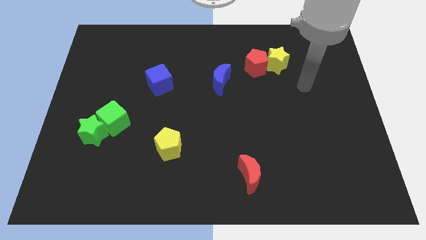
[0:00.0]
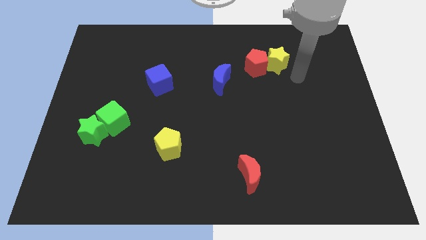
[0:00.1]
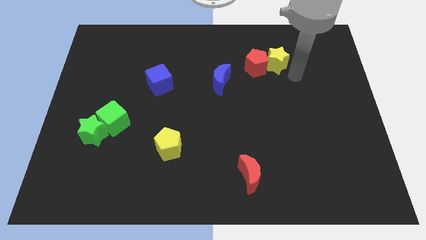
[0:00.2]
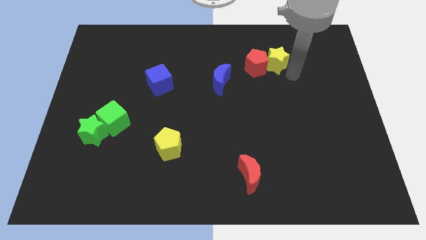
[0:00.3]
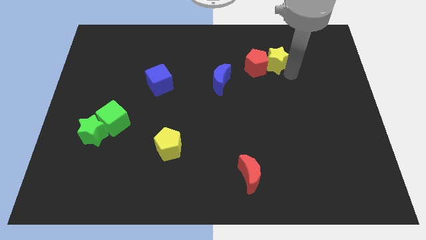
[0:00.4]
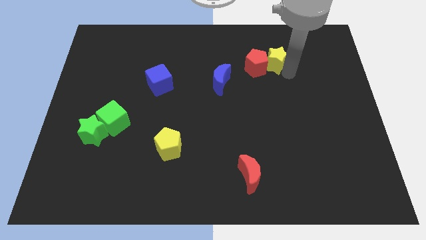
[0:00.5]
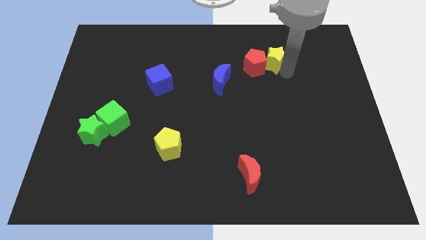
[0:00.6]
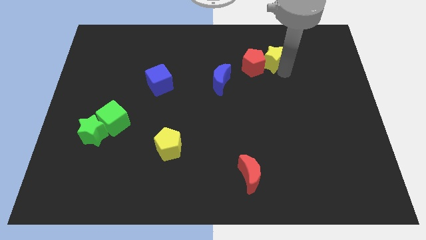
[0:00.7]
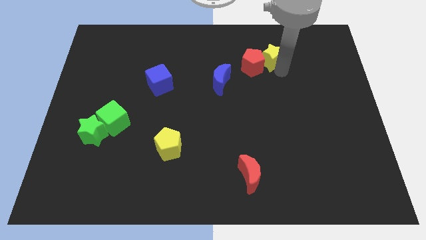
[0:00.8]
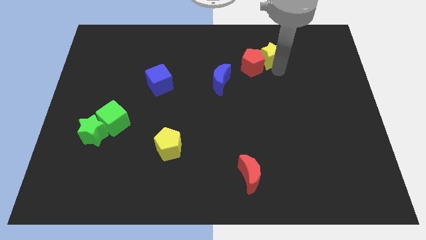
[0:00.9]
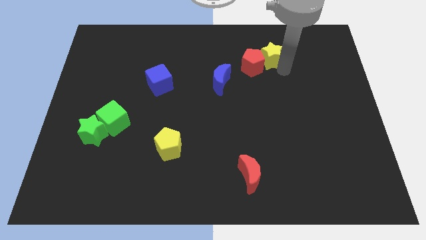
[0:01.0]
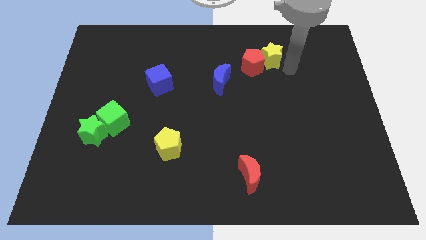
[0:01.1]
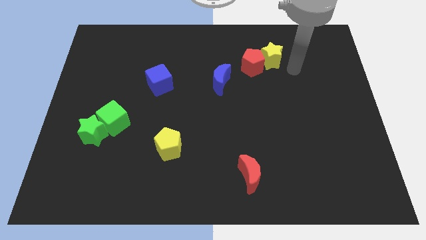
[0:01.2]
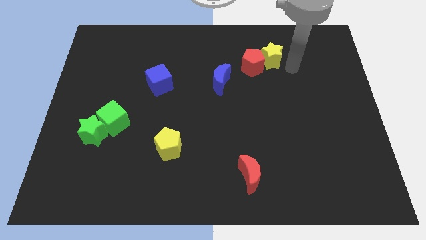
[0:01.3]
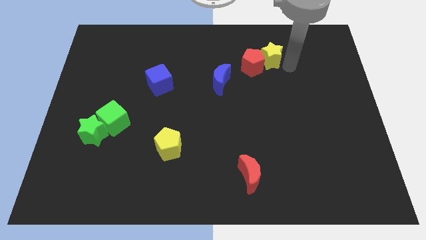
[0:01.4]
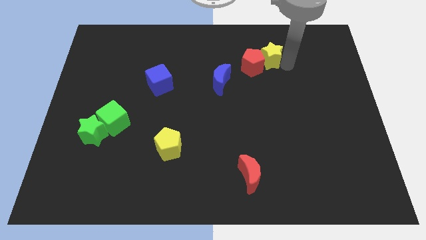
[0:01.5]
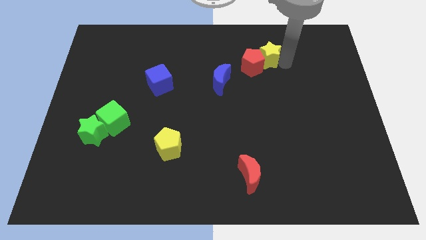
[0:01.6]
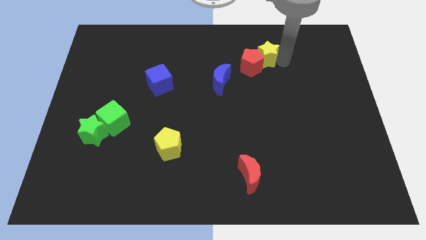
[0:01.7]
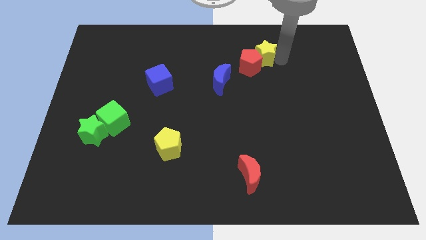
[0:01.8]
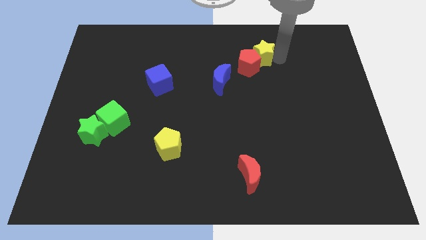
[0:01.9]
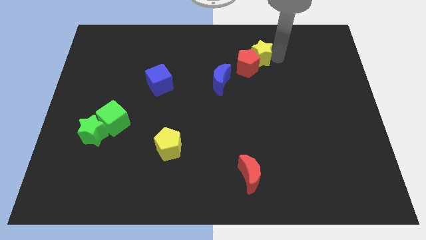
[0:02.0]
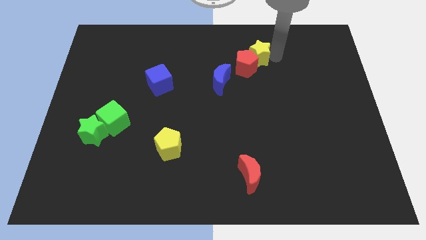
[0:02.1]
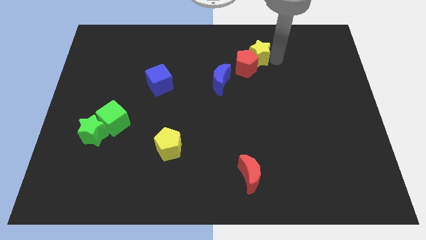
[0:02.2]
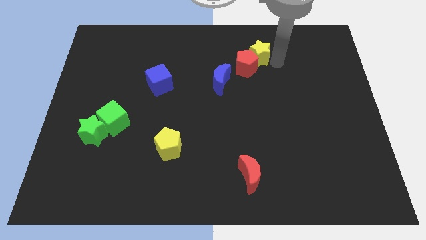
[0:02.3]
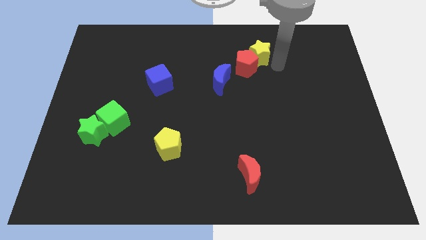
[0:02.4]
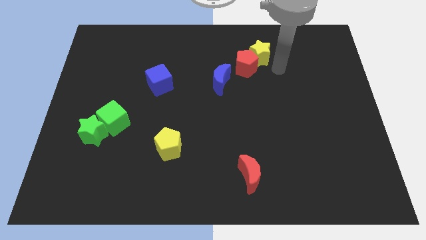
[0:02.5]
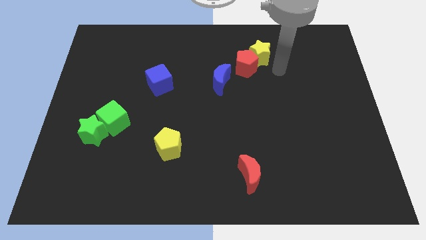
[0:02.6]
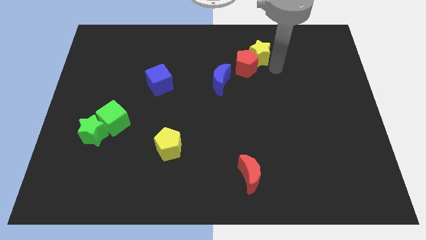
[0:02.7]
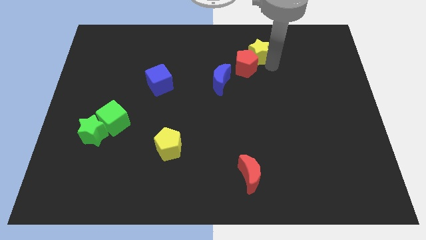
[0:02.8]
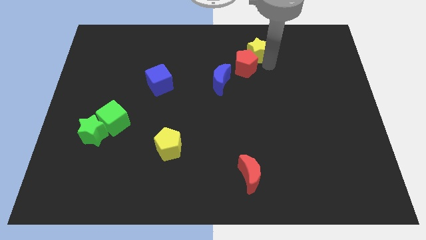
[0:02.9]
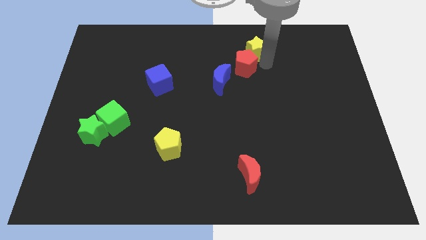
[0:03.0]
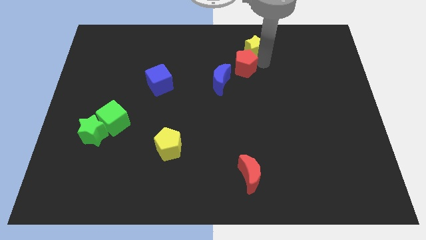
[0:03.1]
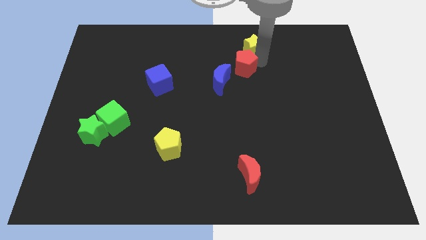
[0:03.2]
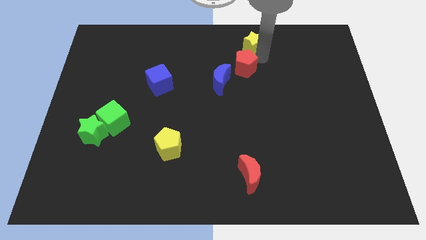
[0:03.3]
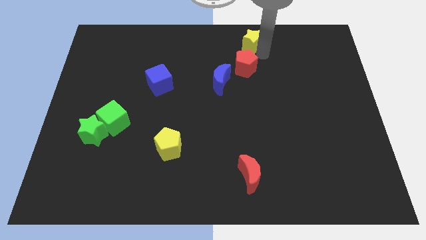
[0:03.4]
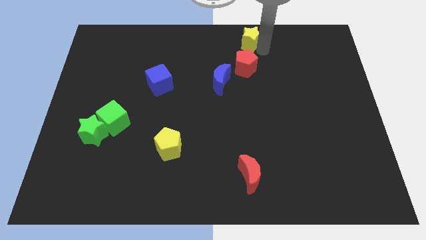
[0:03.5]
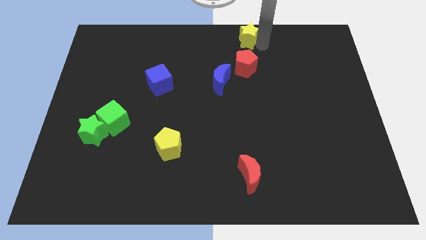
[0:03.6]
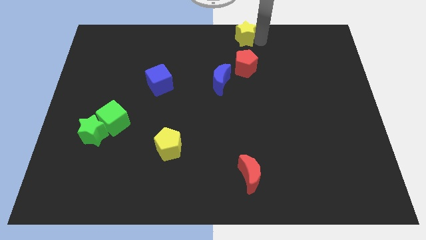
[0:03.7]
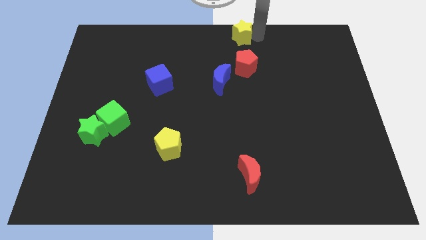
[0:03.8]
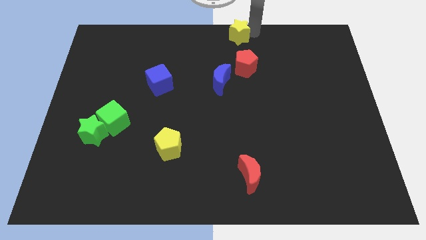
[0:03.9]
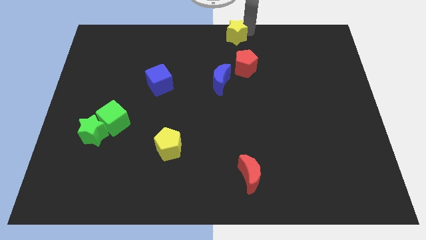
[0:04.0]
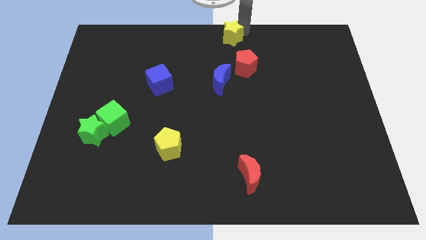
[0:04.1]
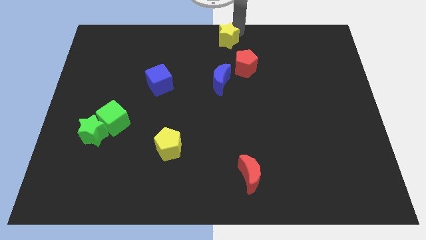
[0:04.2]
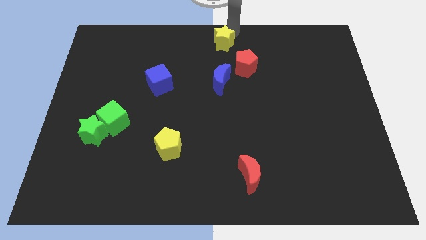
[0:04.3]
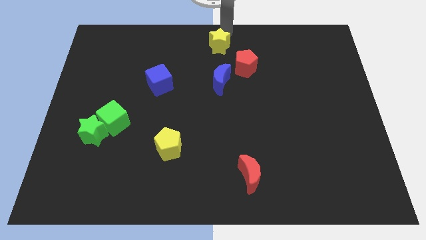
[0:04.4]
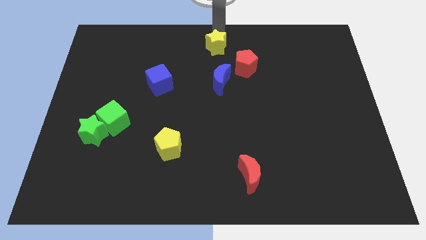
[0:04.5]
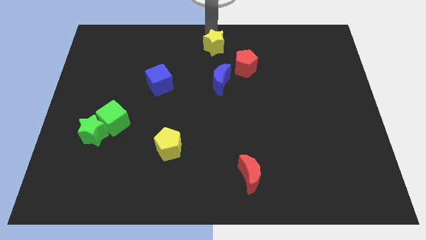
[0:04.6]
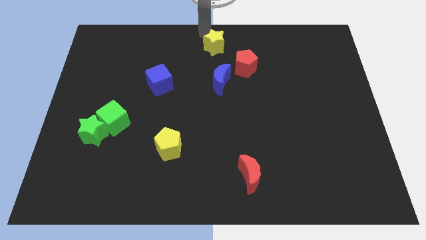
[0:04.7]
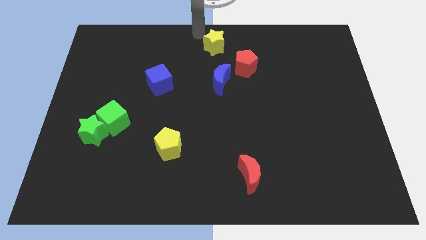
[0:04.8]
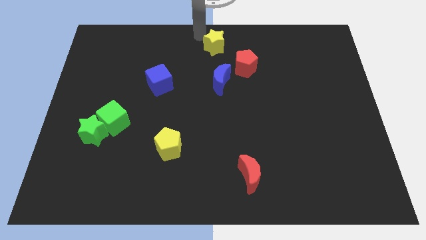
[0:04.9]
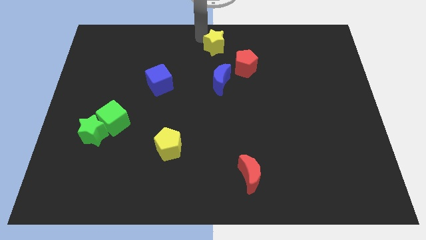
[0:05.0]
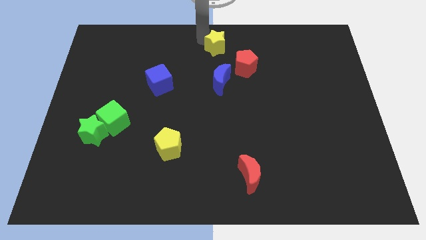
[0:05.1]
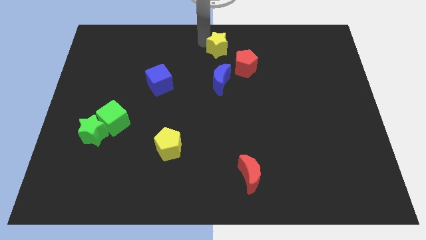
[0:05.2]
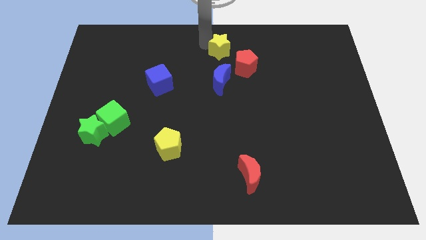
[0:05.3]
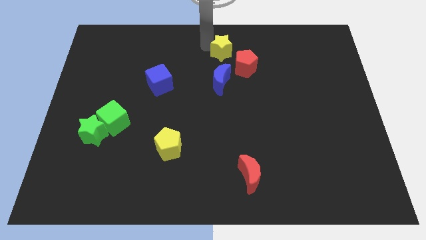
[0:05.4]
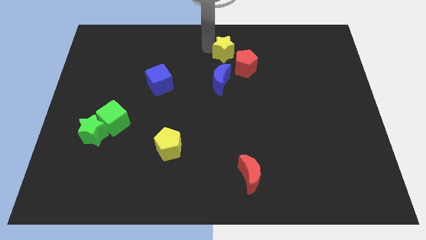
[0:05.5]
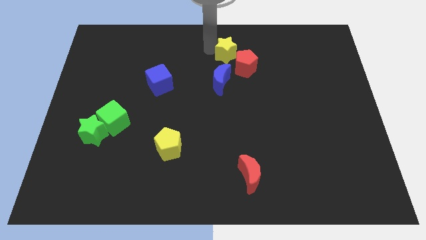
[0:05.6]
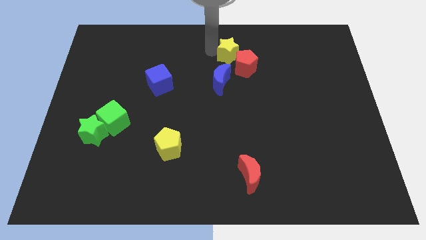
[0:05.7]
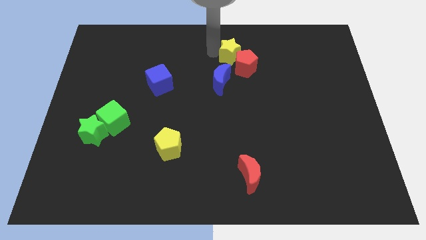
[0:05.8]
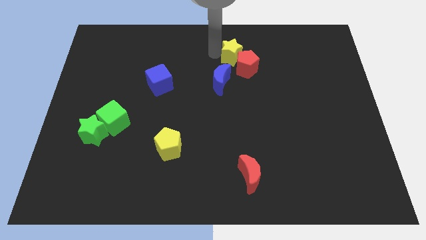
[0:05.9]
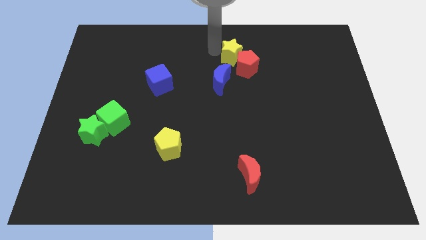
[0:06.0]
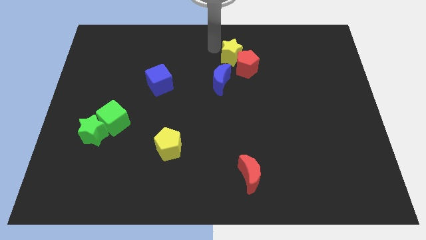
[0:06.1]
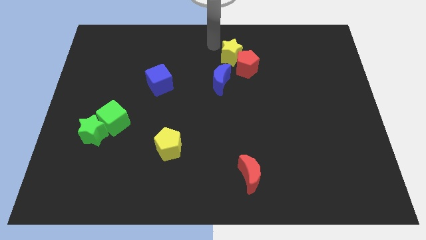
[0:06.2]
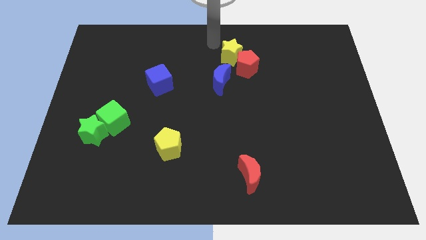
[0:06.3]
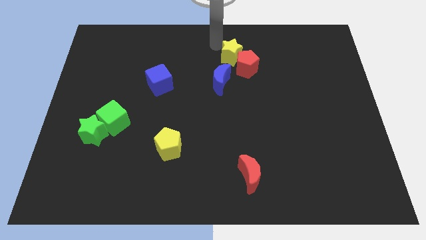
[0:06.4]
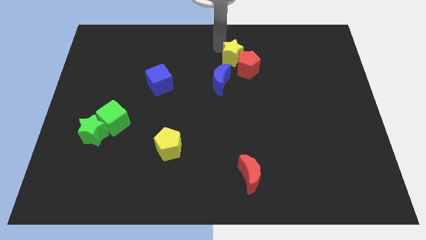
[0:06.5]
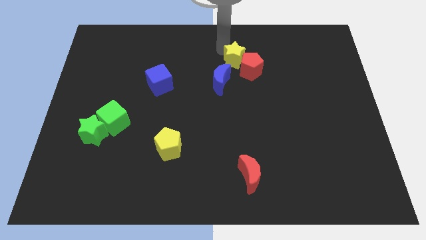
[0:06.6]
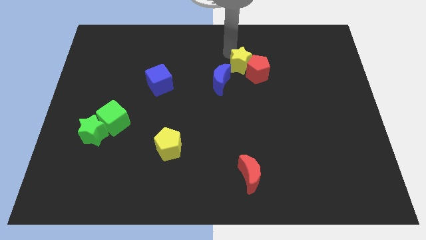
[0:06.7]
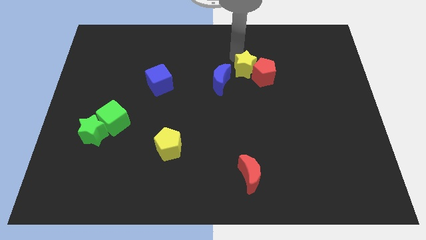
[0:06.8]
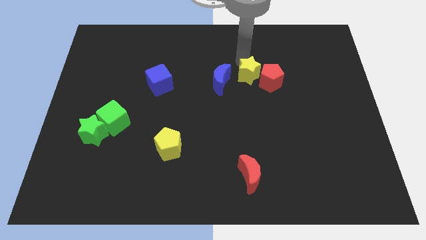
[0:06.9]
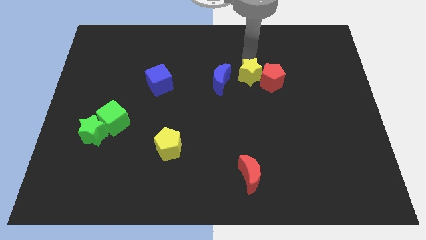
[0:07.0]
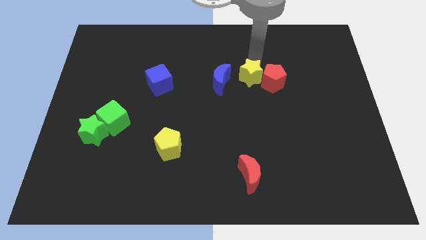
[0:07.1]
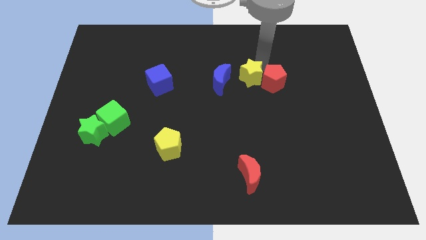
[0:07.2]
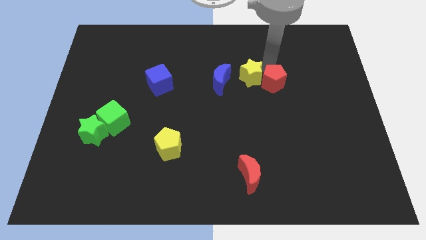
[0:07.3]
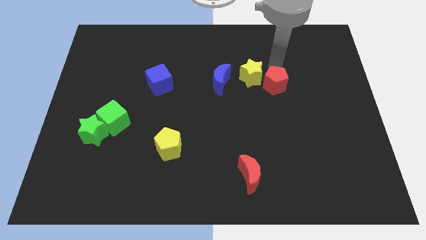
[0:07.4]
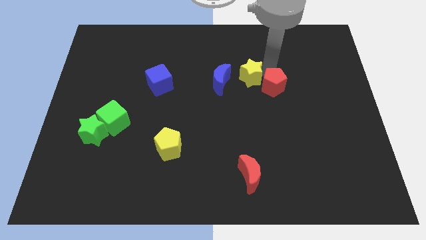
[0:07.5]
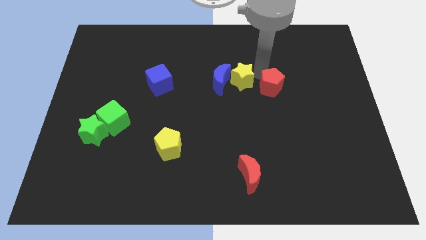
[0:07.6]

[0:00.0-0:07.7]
slide the yellow star close to the blue moon
